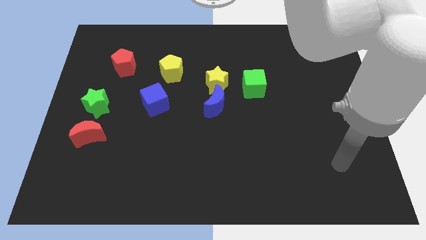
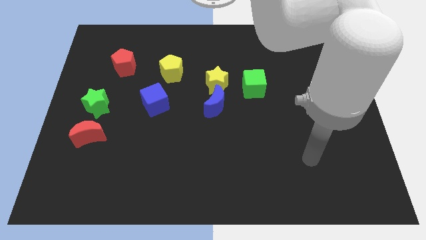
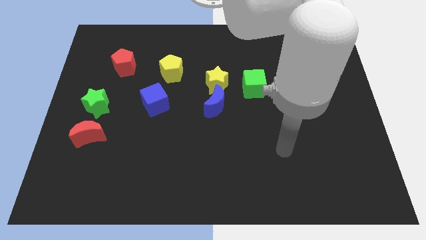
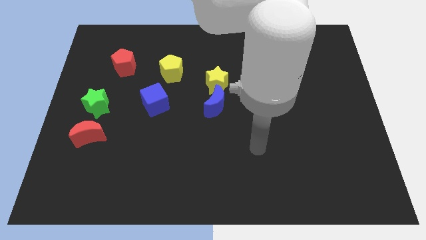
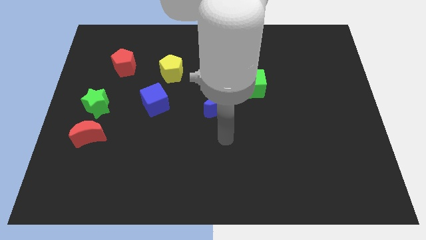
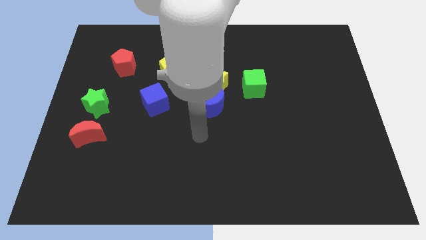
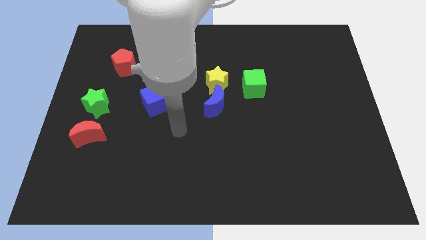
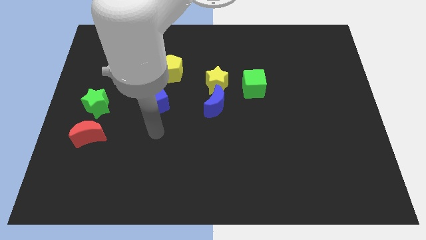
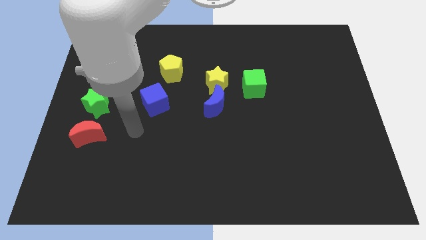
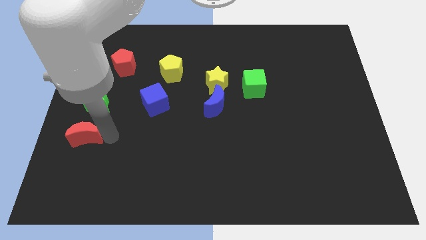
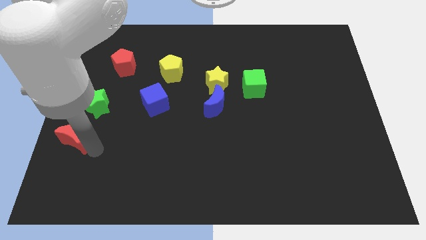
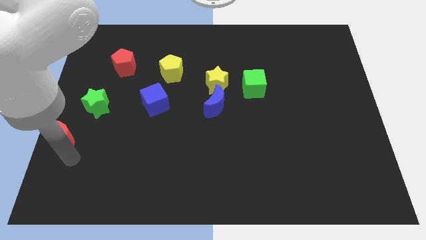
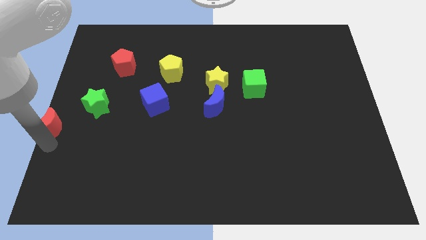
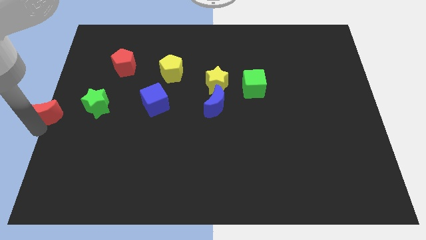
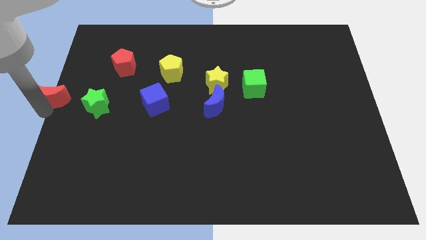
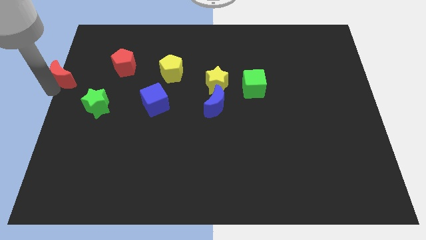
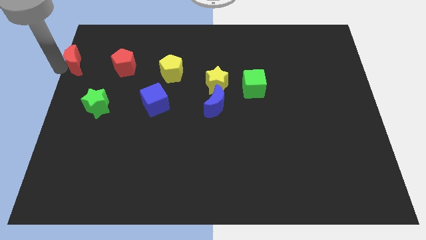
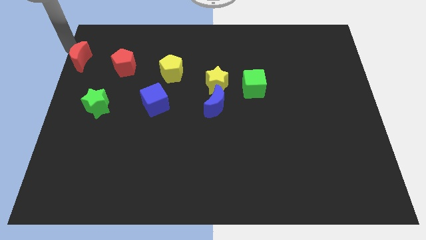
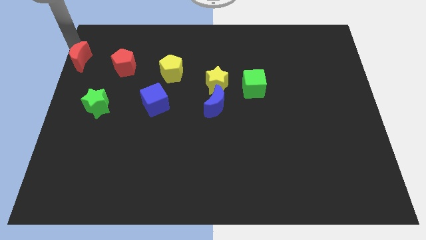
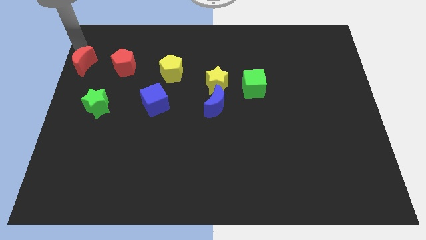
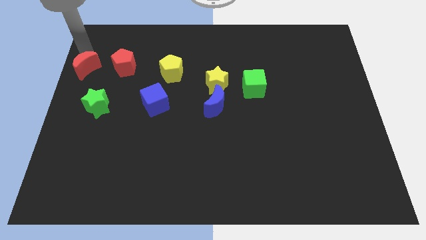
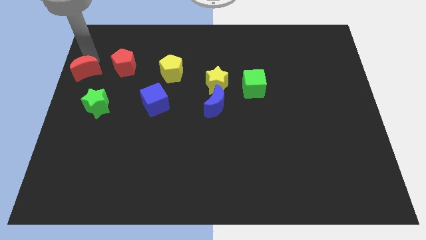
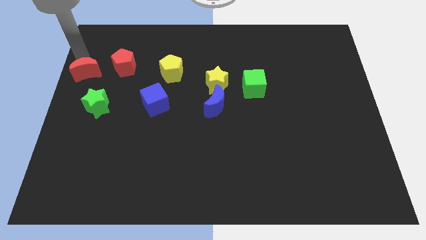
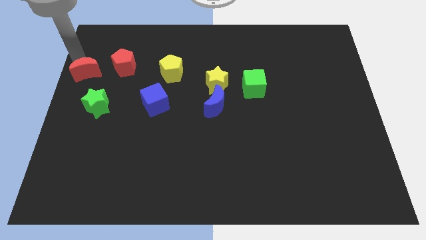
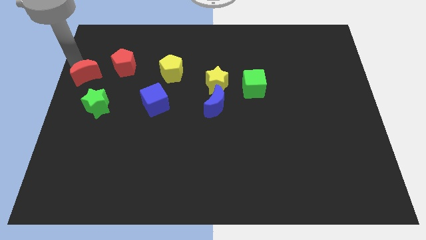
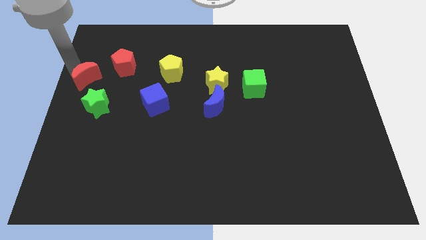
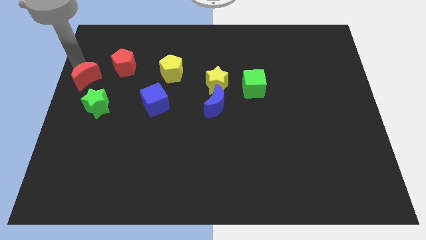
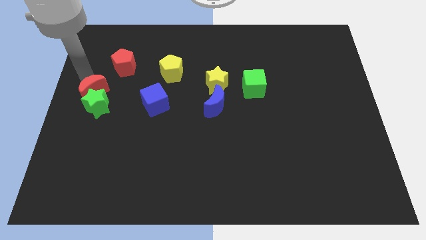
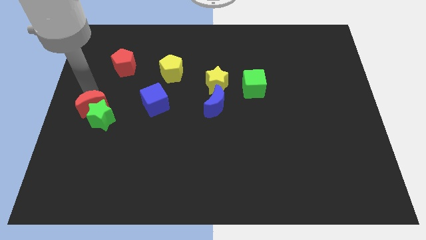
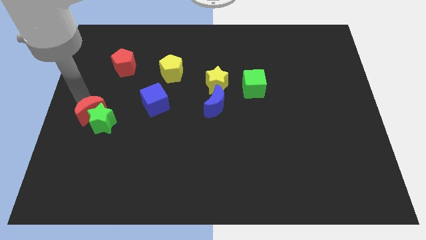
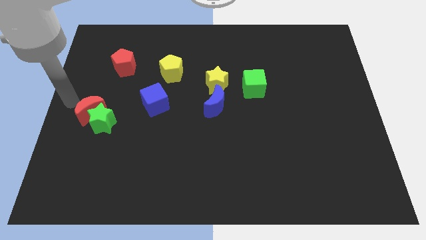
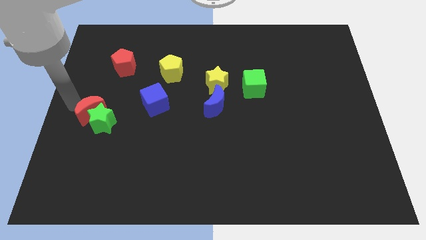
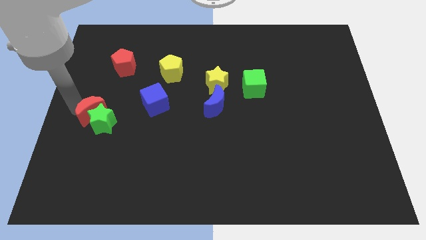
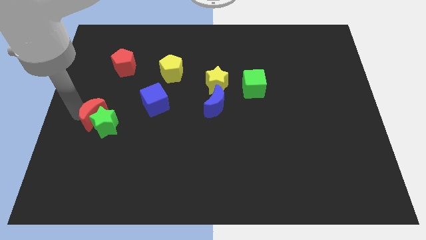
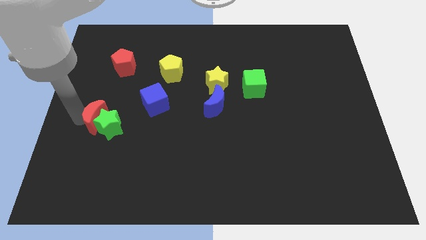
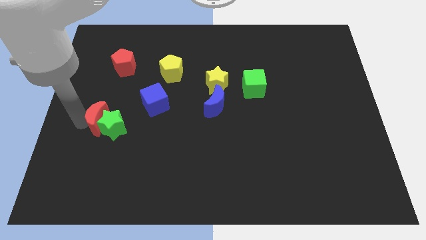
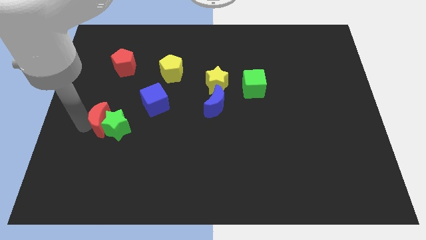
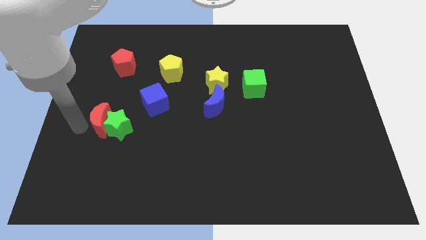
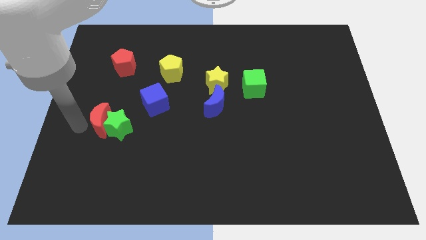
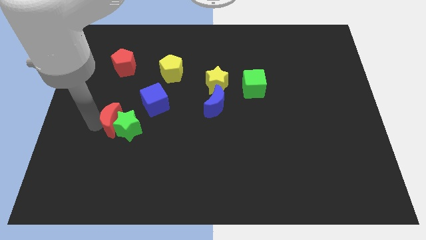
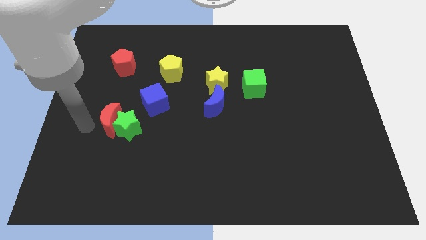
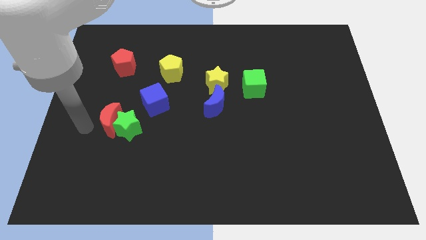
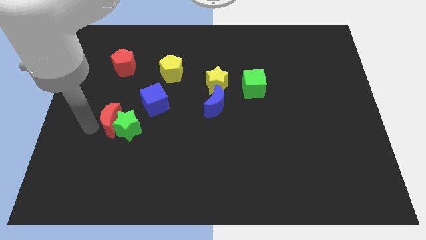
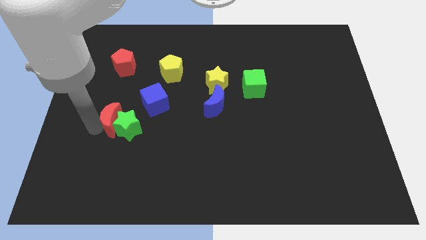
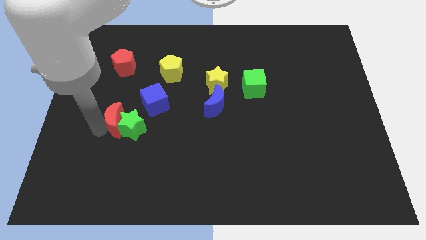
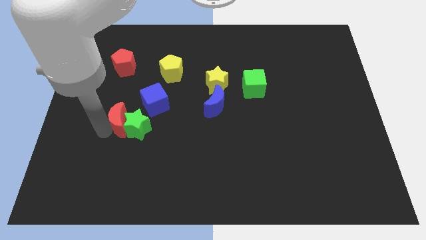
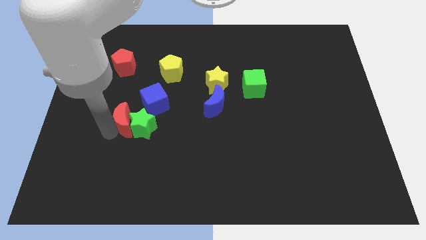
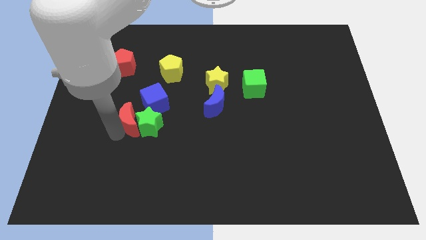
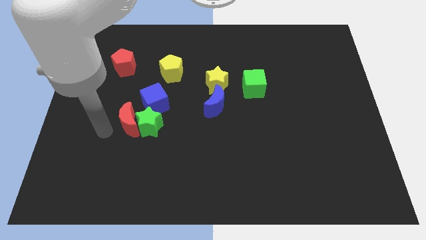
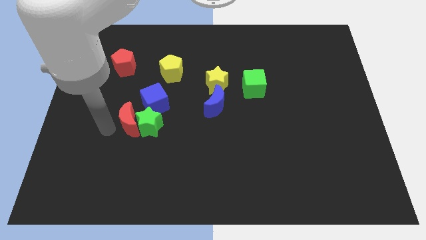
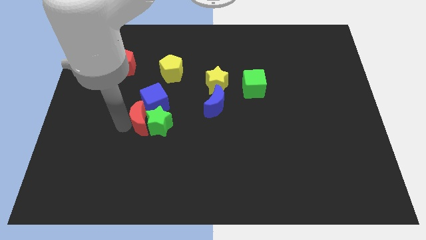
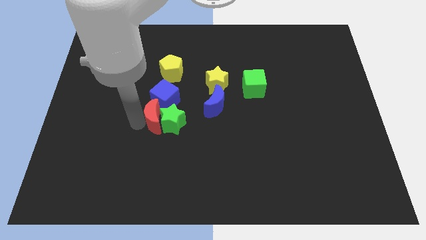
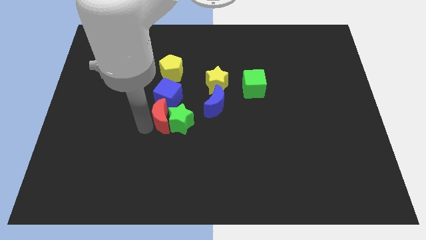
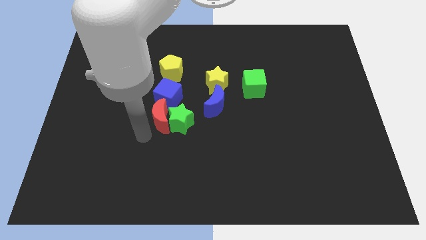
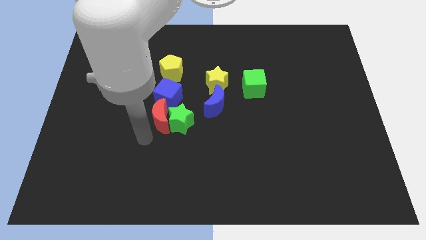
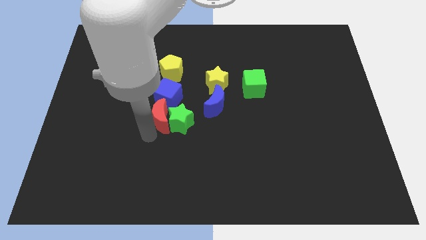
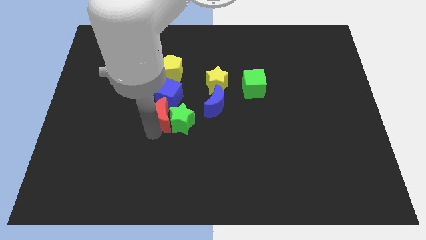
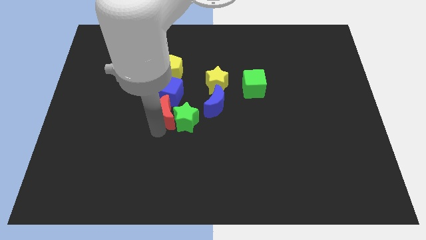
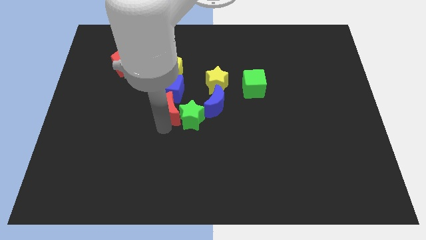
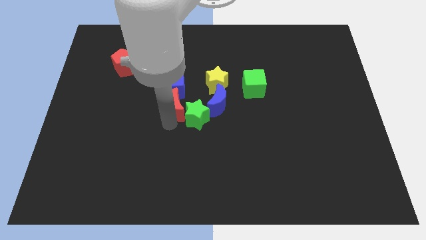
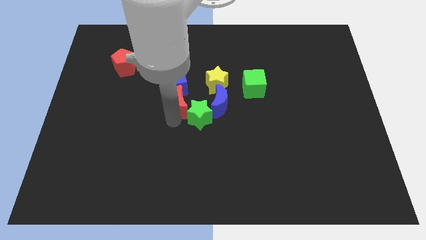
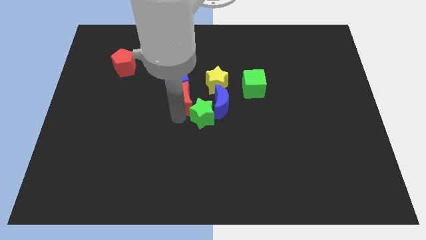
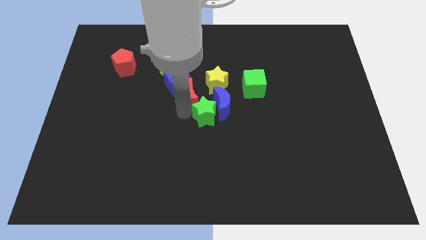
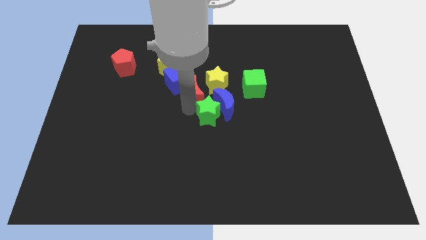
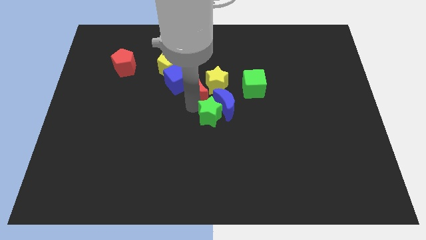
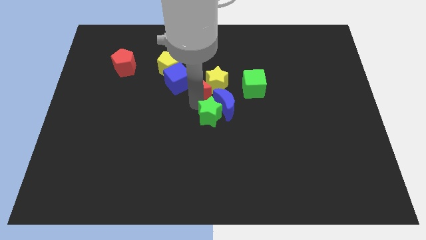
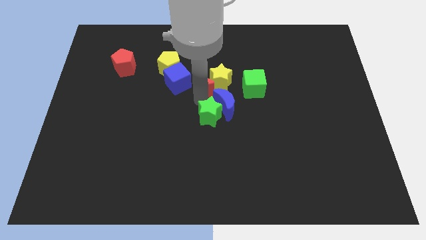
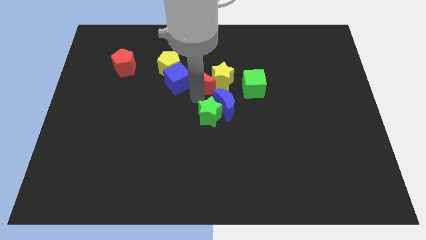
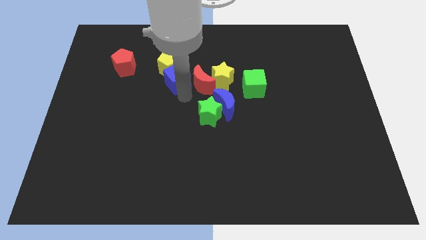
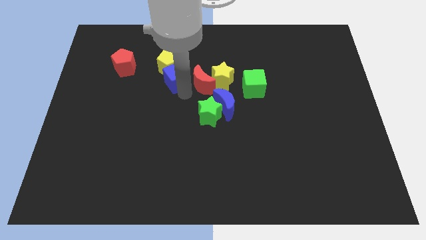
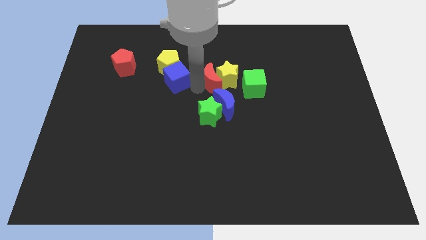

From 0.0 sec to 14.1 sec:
move the red moon to the top of the blue moon
